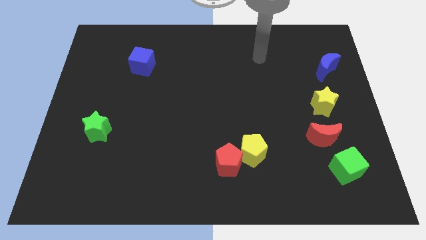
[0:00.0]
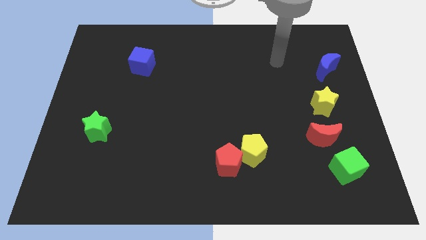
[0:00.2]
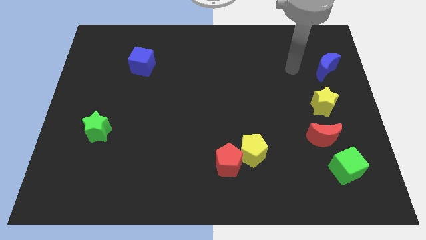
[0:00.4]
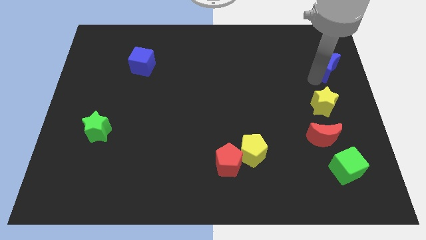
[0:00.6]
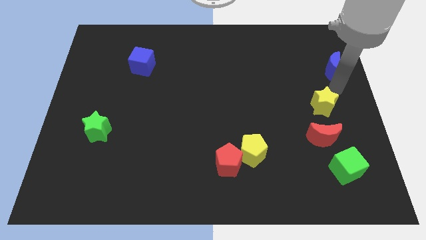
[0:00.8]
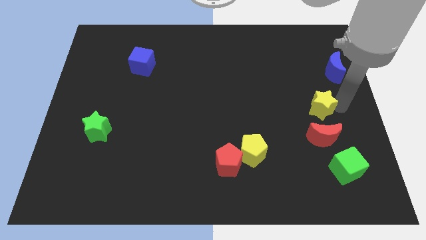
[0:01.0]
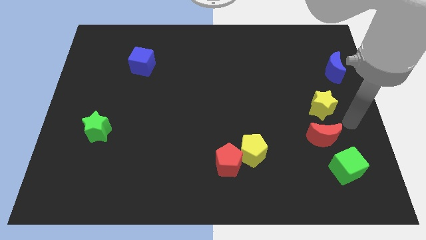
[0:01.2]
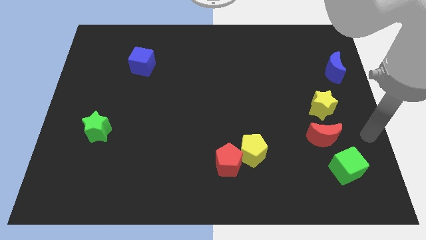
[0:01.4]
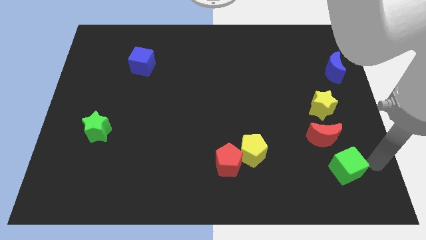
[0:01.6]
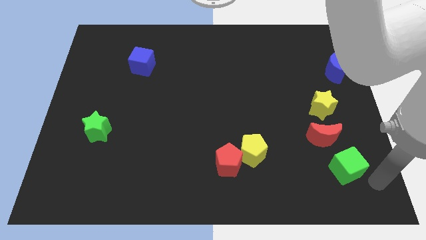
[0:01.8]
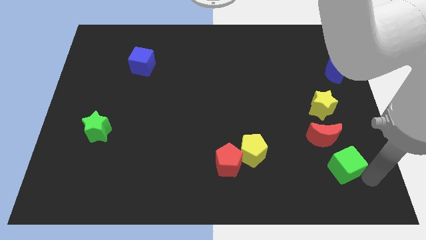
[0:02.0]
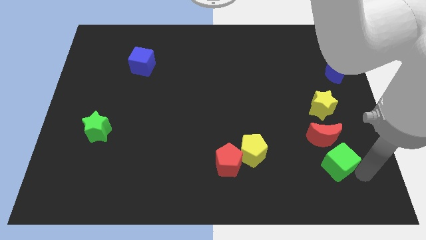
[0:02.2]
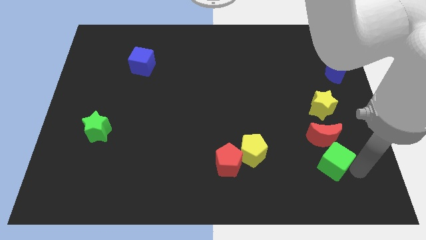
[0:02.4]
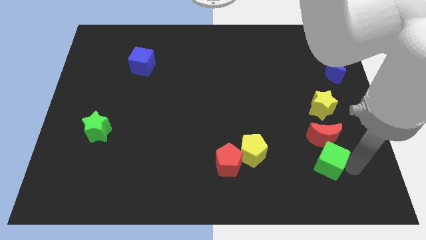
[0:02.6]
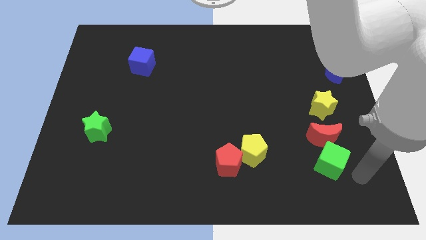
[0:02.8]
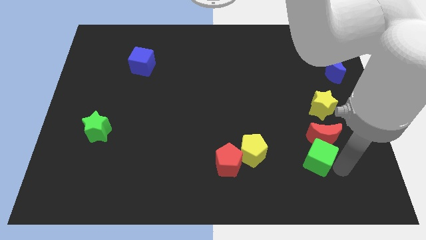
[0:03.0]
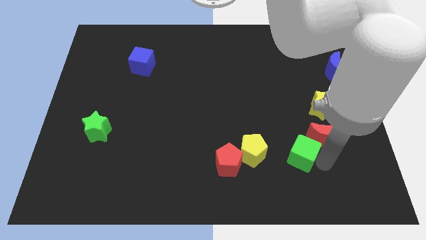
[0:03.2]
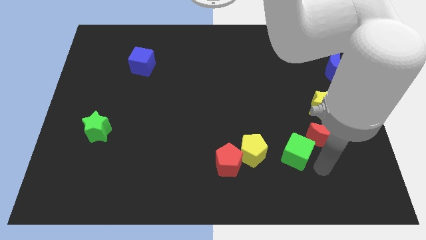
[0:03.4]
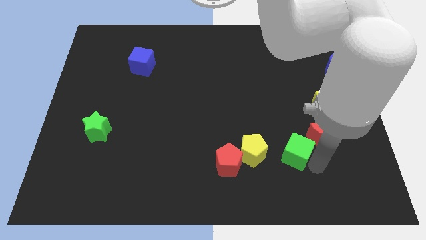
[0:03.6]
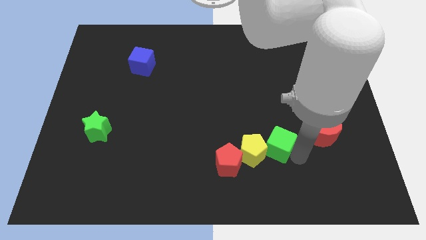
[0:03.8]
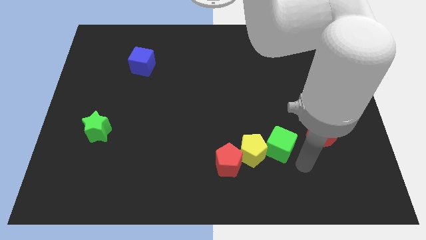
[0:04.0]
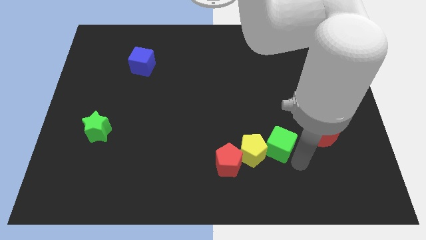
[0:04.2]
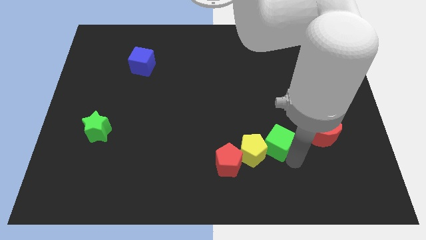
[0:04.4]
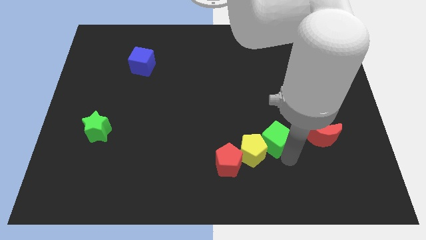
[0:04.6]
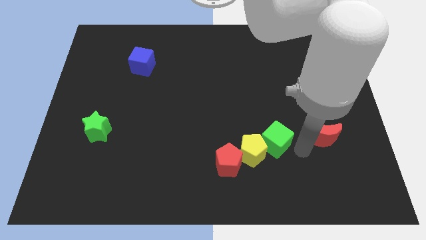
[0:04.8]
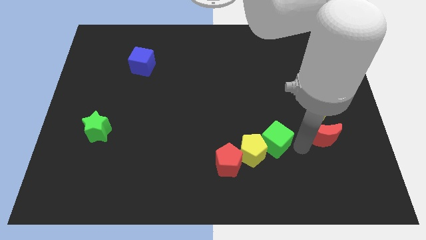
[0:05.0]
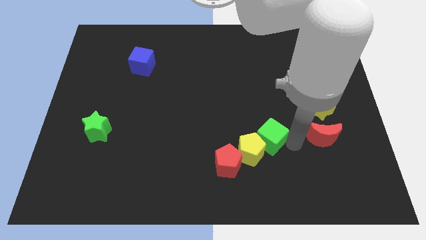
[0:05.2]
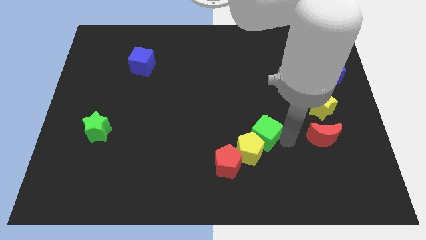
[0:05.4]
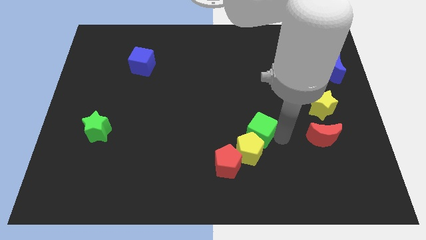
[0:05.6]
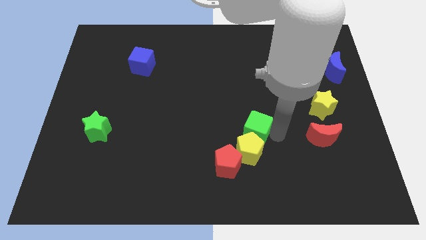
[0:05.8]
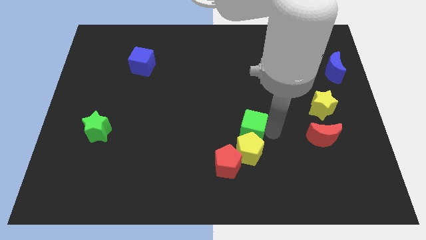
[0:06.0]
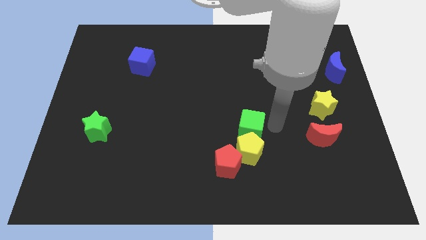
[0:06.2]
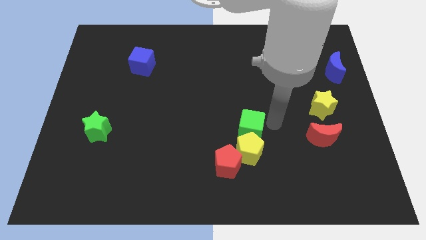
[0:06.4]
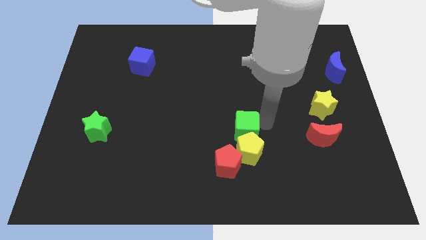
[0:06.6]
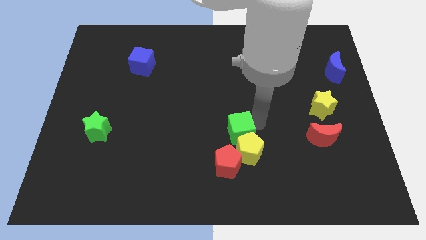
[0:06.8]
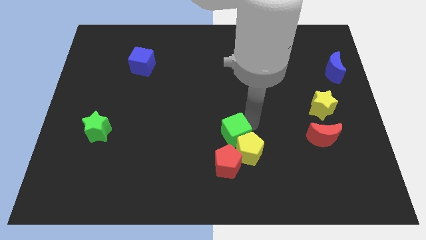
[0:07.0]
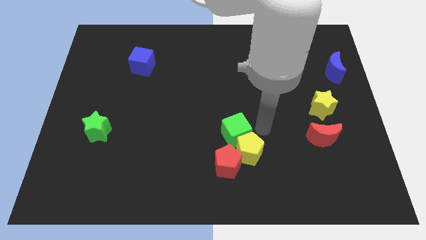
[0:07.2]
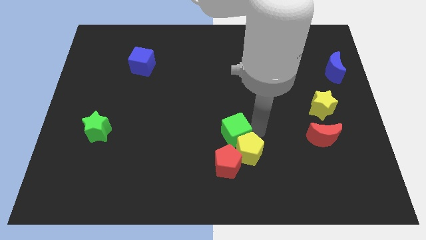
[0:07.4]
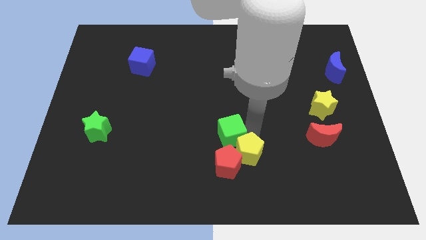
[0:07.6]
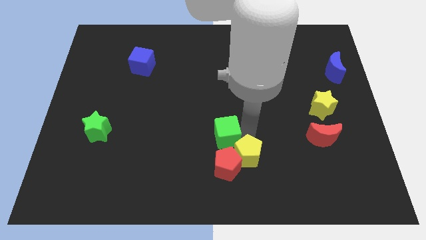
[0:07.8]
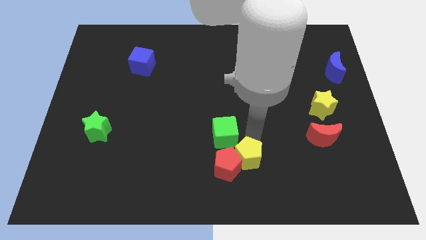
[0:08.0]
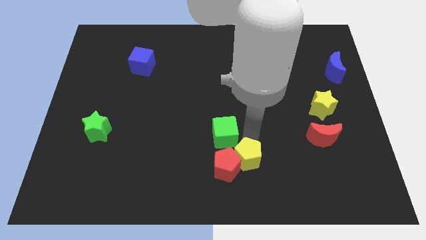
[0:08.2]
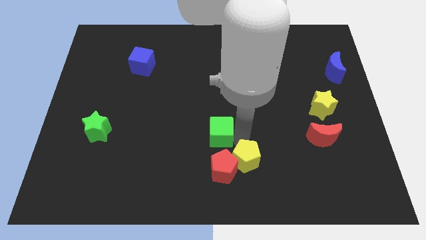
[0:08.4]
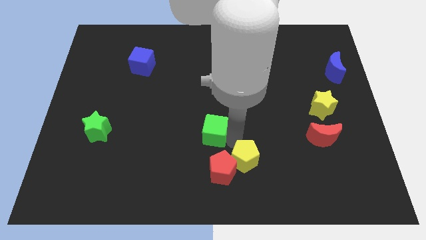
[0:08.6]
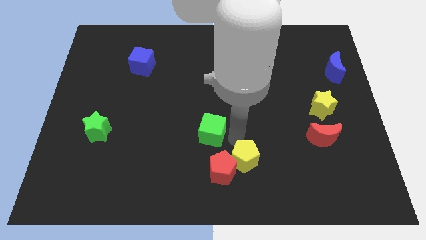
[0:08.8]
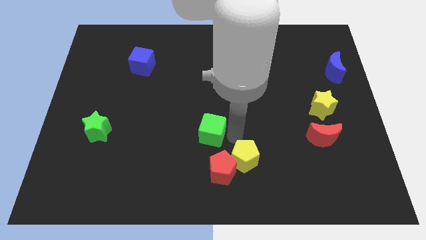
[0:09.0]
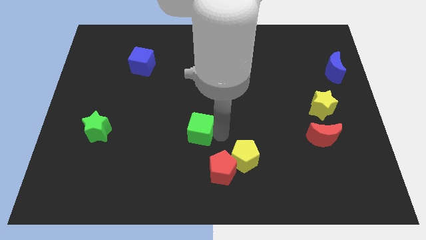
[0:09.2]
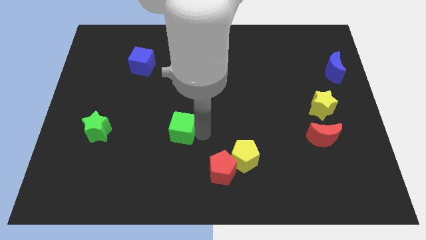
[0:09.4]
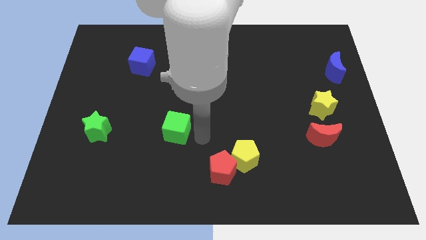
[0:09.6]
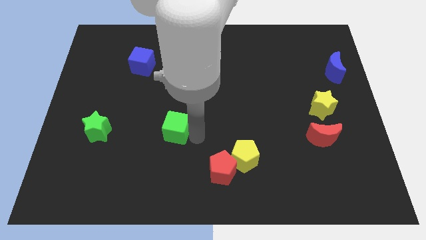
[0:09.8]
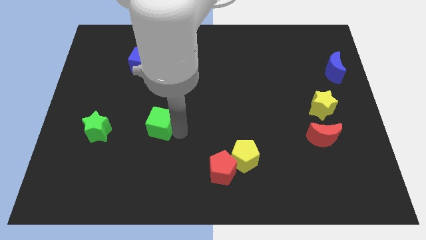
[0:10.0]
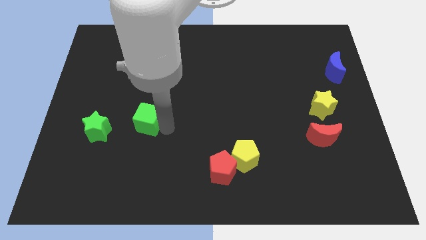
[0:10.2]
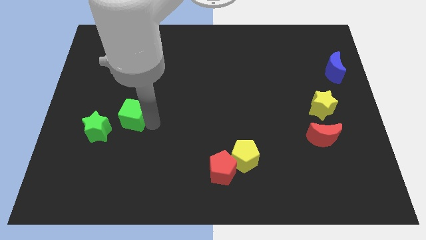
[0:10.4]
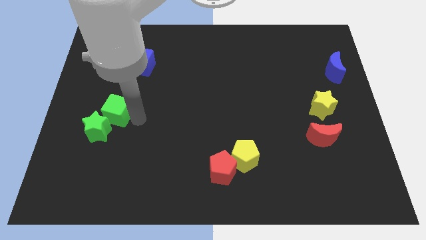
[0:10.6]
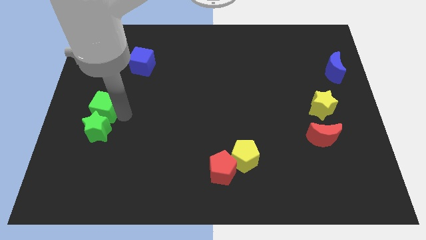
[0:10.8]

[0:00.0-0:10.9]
put the green cube to the left side

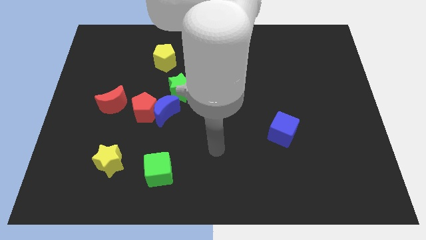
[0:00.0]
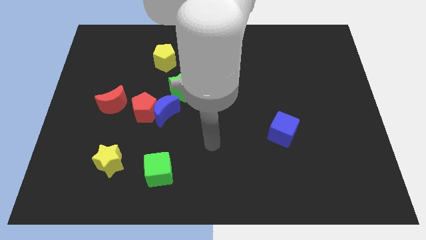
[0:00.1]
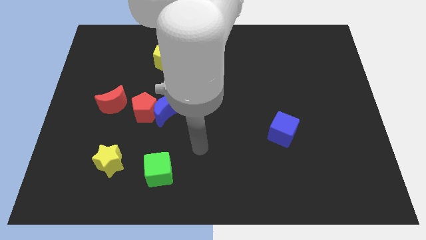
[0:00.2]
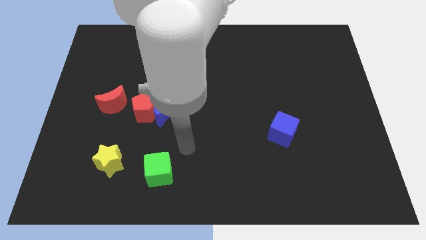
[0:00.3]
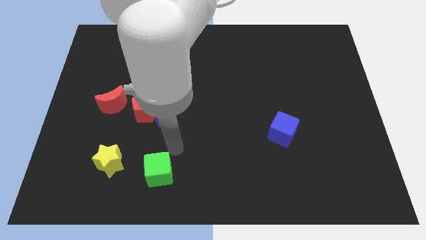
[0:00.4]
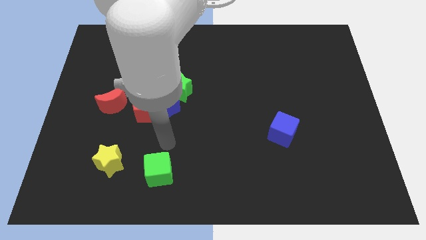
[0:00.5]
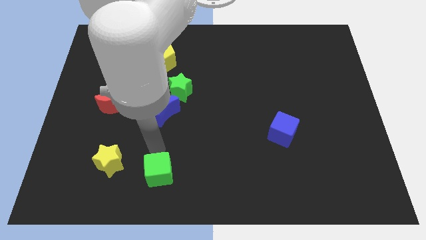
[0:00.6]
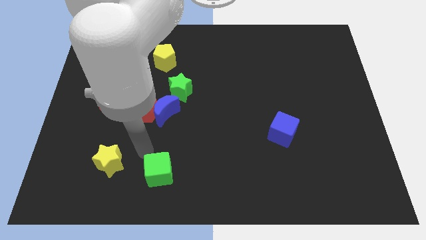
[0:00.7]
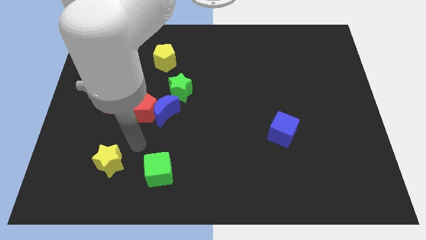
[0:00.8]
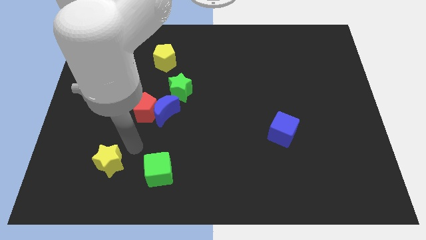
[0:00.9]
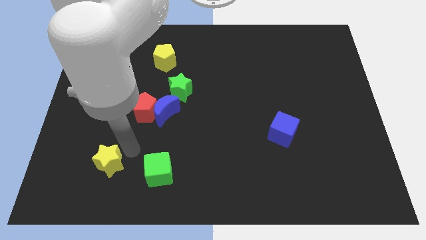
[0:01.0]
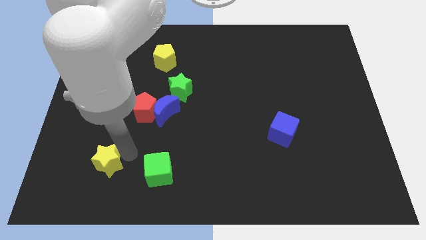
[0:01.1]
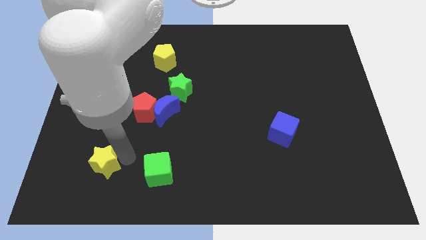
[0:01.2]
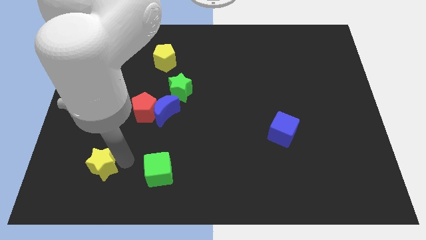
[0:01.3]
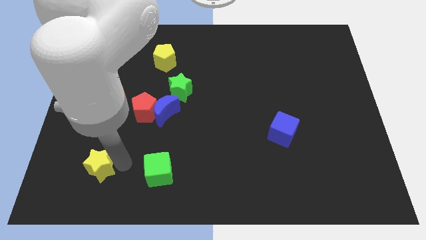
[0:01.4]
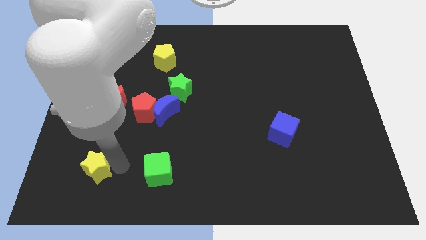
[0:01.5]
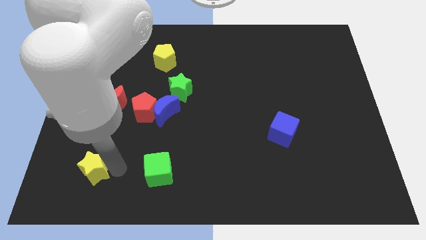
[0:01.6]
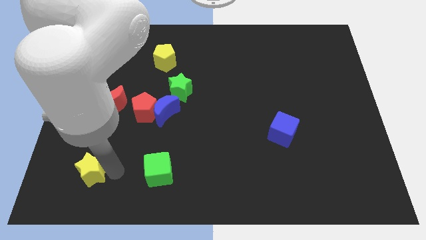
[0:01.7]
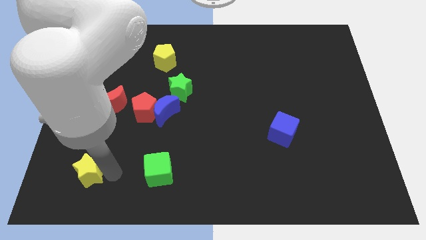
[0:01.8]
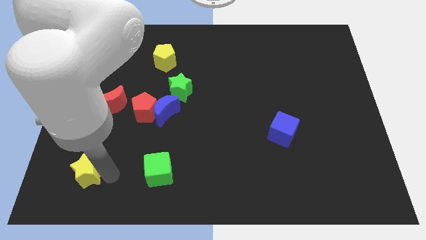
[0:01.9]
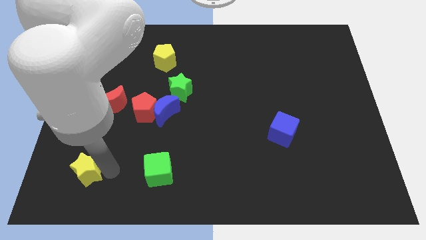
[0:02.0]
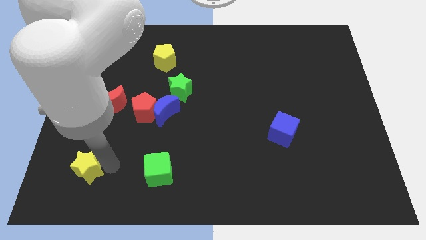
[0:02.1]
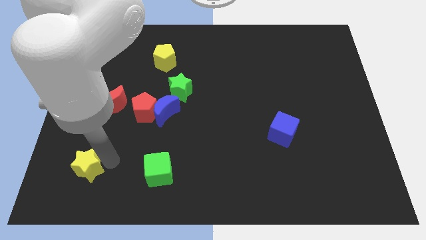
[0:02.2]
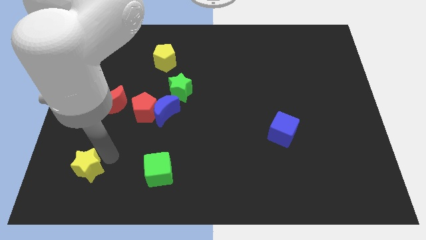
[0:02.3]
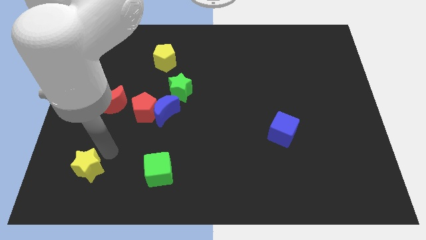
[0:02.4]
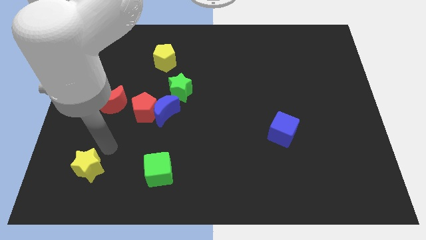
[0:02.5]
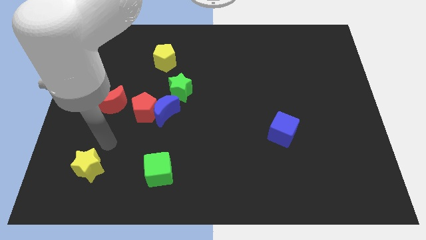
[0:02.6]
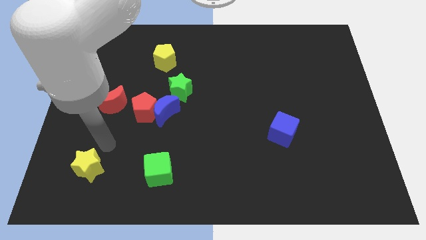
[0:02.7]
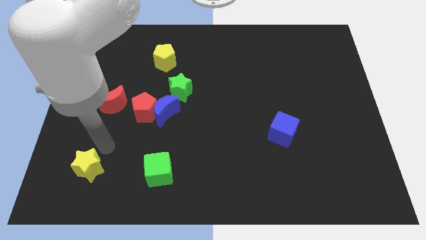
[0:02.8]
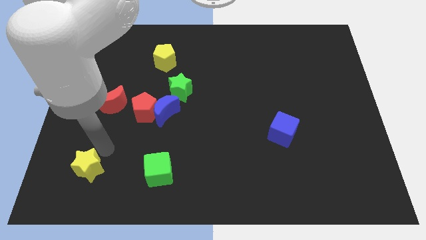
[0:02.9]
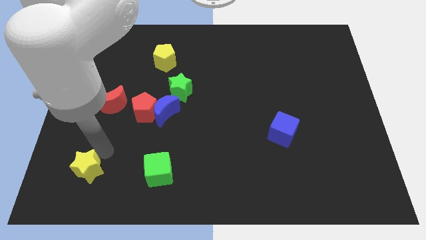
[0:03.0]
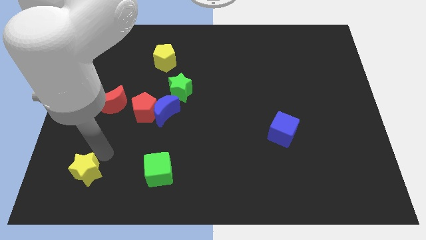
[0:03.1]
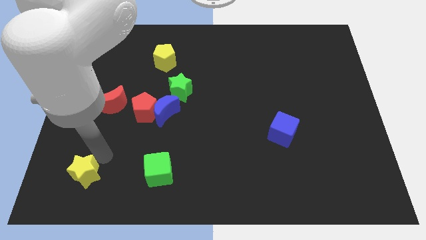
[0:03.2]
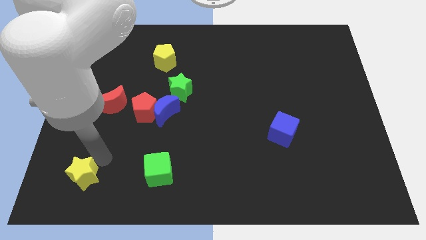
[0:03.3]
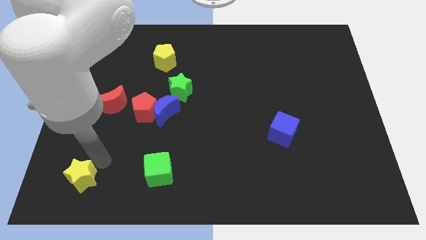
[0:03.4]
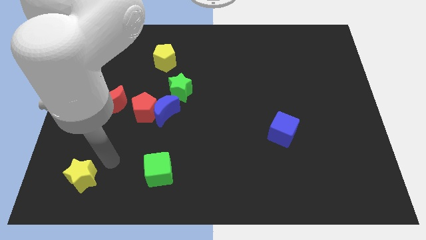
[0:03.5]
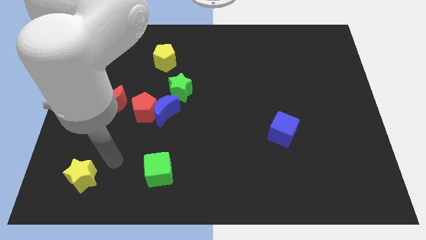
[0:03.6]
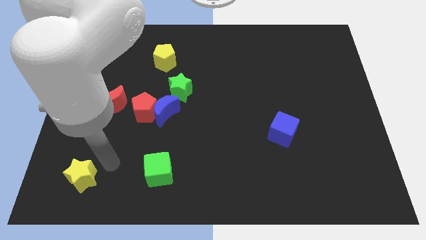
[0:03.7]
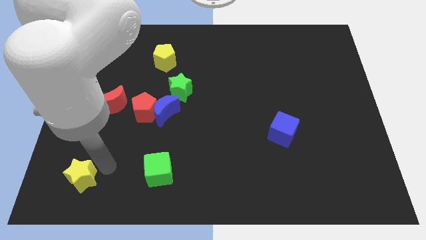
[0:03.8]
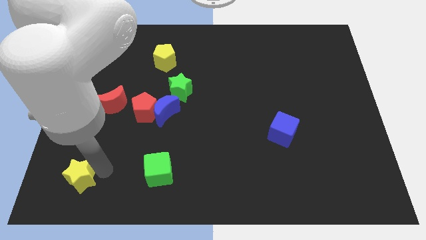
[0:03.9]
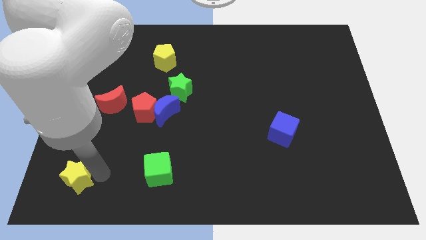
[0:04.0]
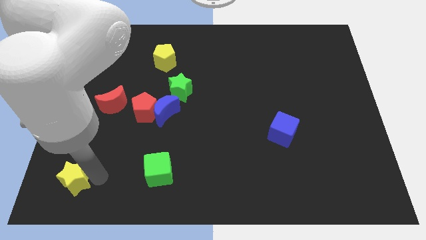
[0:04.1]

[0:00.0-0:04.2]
move the yellow star to the bottom left of the board
